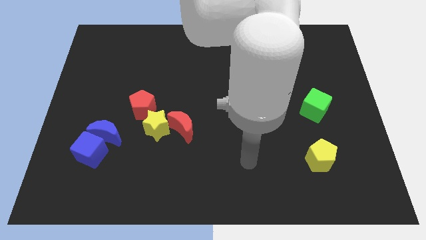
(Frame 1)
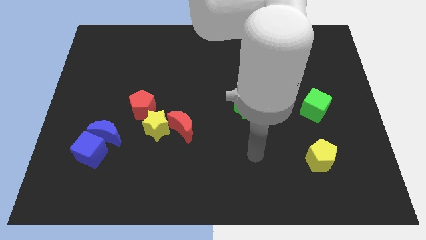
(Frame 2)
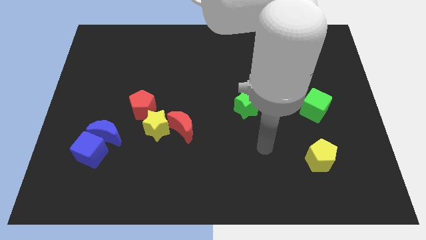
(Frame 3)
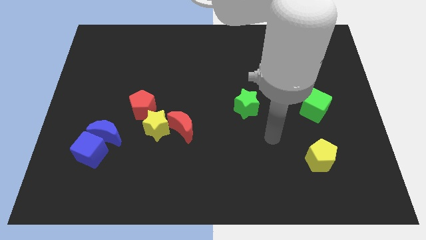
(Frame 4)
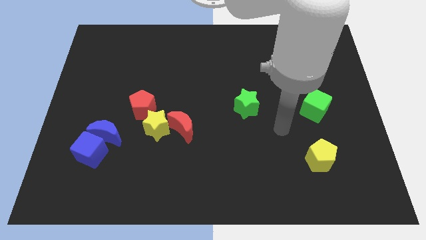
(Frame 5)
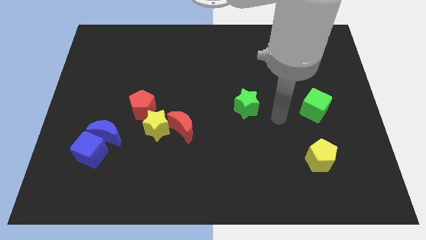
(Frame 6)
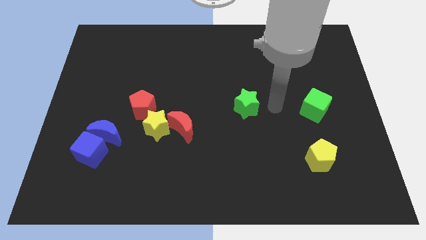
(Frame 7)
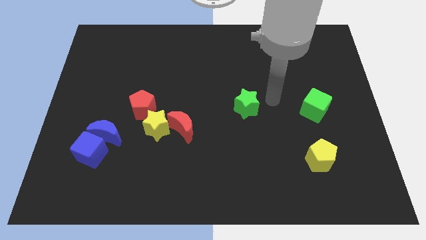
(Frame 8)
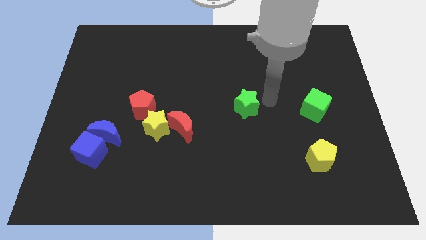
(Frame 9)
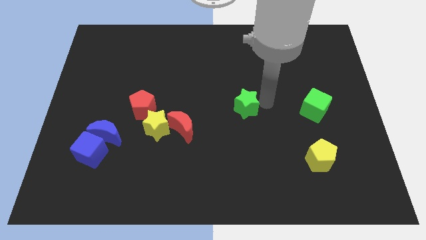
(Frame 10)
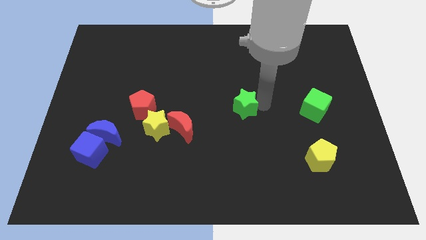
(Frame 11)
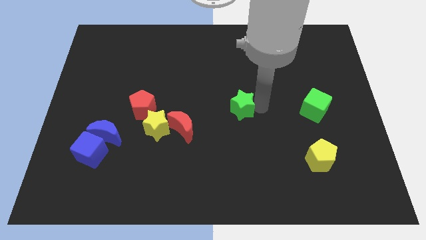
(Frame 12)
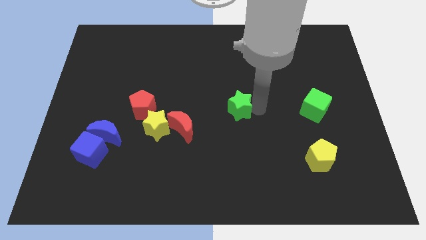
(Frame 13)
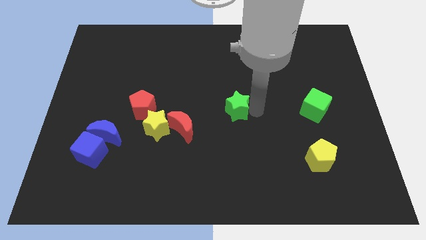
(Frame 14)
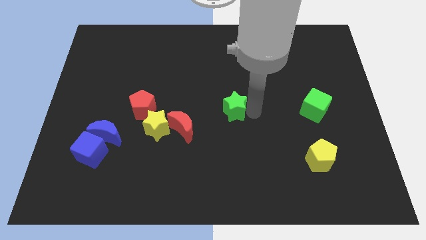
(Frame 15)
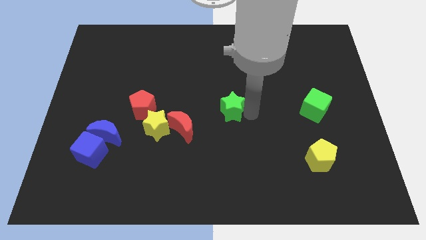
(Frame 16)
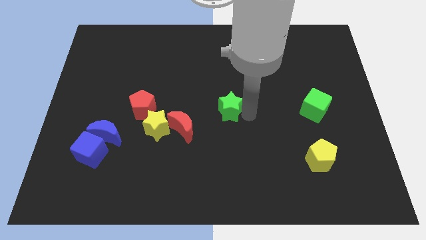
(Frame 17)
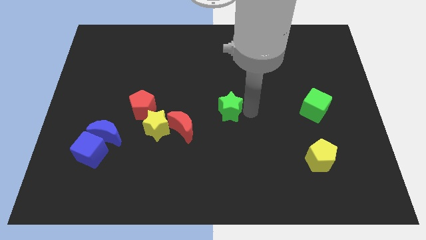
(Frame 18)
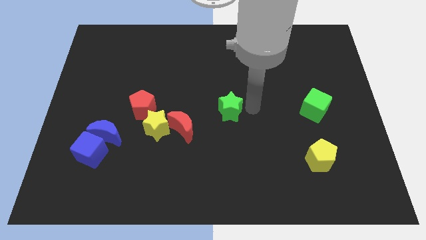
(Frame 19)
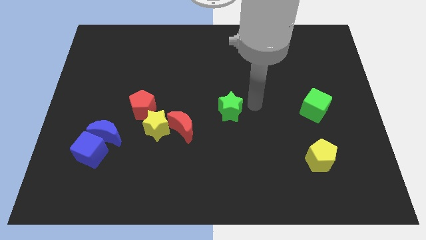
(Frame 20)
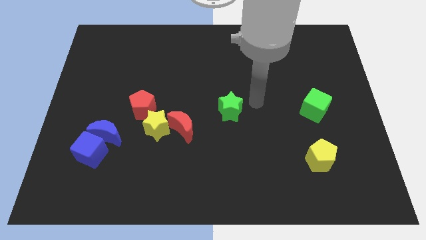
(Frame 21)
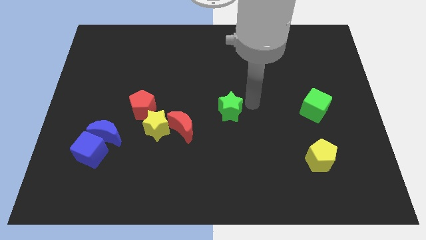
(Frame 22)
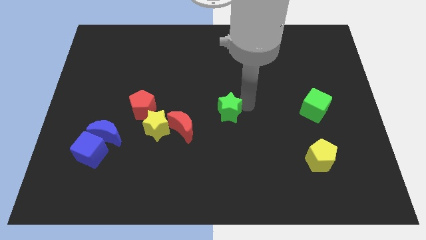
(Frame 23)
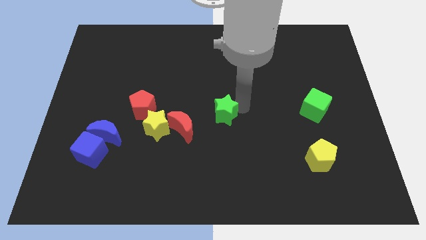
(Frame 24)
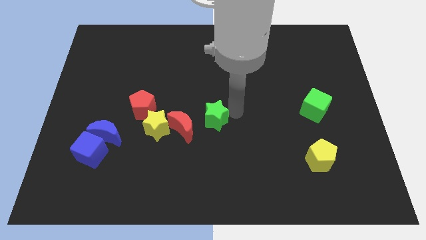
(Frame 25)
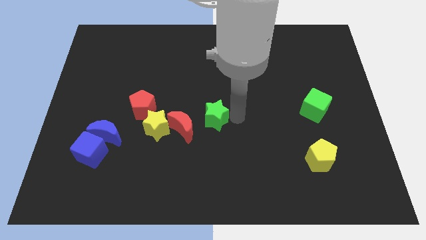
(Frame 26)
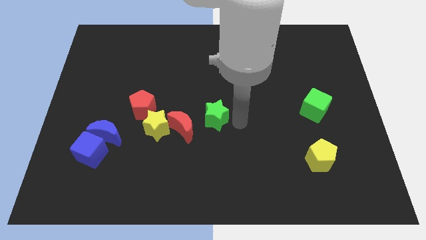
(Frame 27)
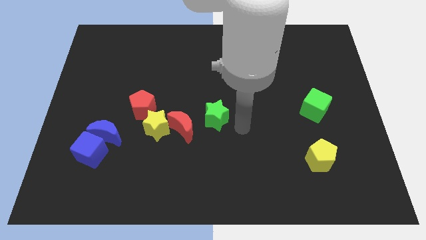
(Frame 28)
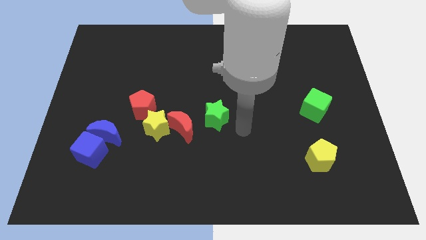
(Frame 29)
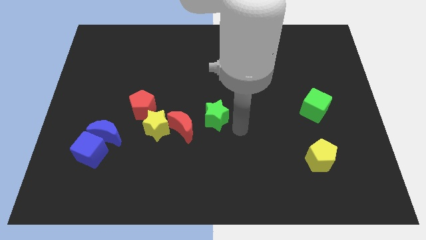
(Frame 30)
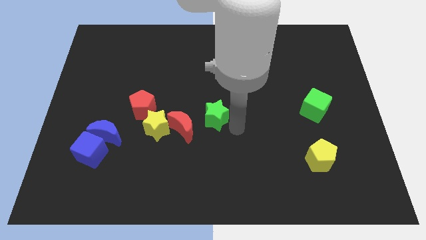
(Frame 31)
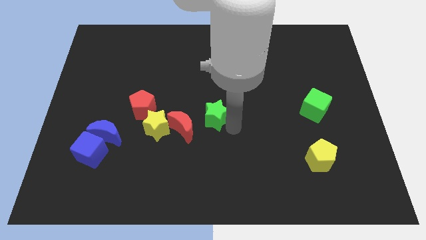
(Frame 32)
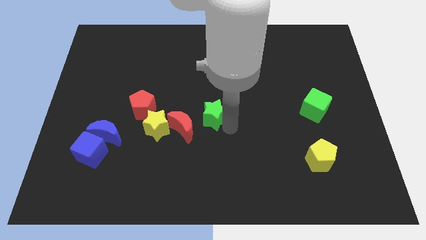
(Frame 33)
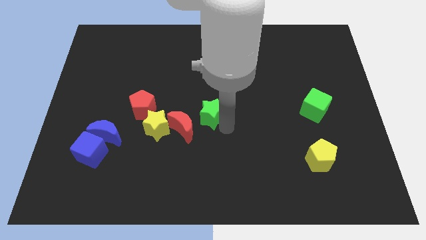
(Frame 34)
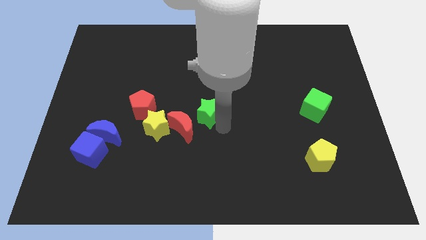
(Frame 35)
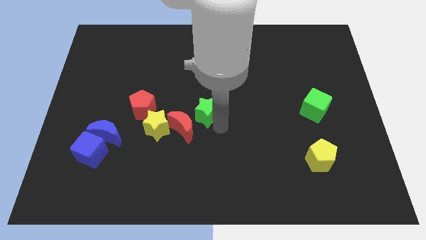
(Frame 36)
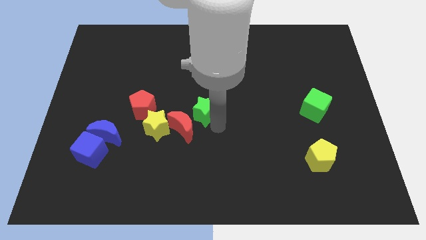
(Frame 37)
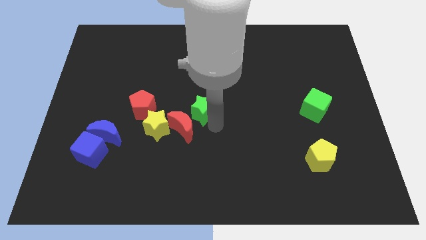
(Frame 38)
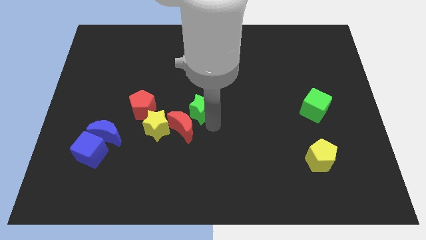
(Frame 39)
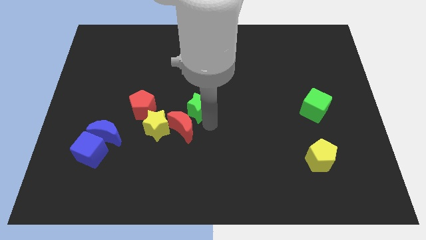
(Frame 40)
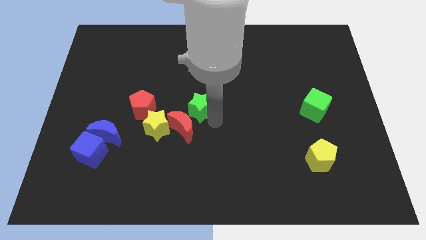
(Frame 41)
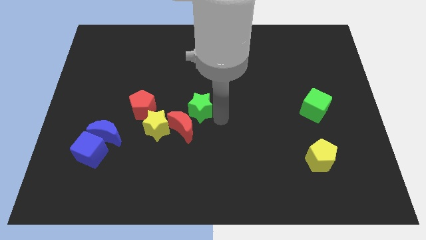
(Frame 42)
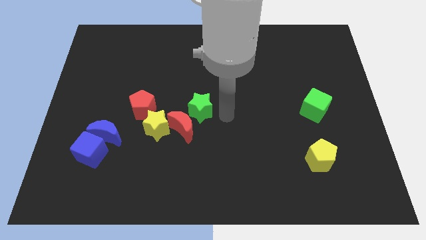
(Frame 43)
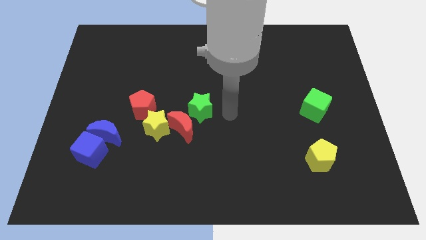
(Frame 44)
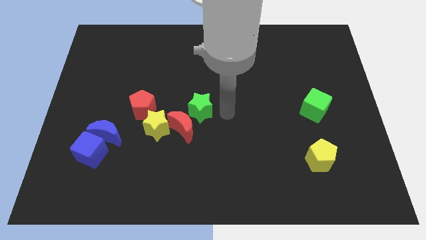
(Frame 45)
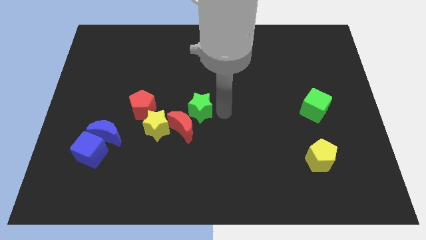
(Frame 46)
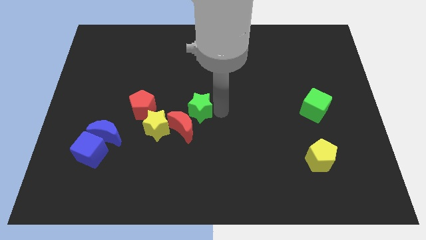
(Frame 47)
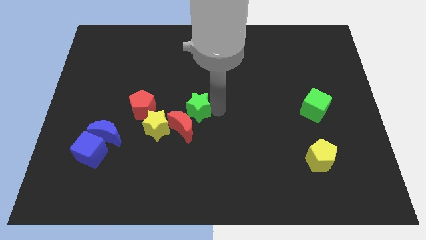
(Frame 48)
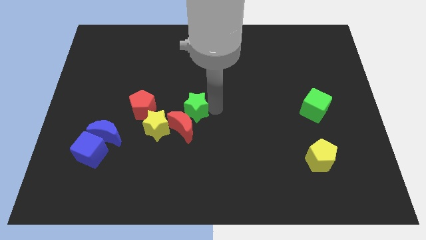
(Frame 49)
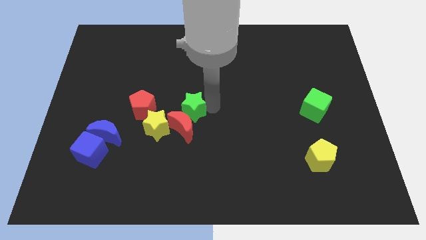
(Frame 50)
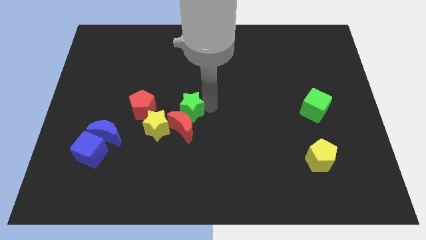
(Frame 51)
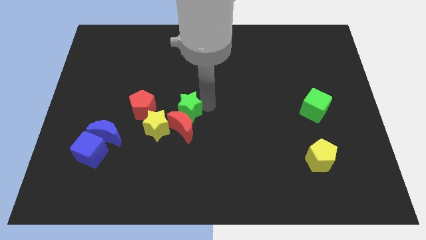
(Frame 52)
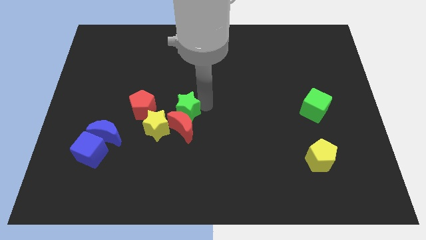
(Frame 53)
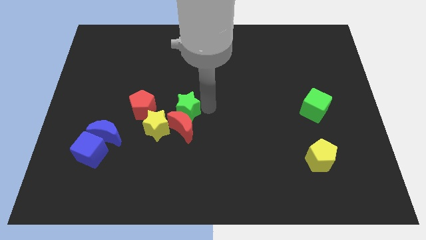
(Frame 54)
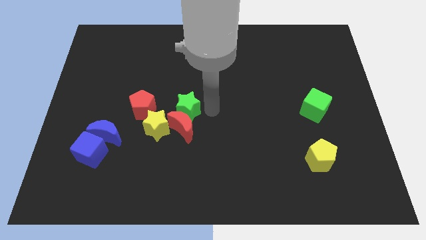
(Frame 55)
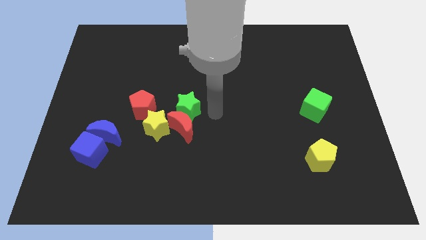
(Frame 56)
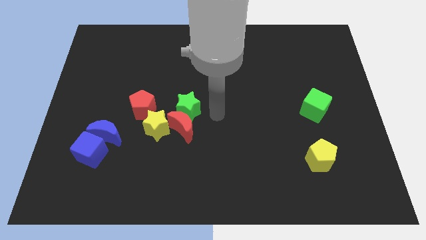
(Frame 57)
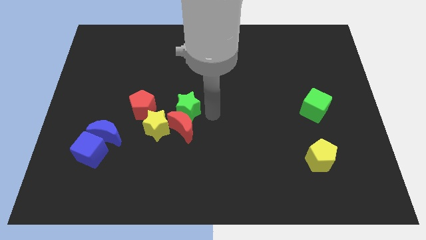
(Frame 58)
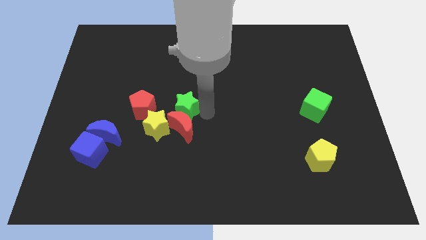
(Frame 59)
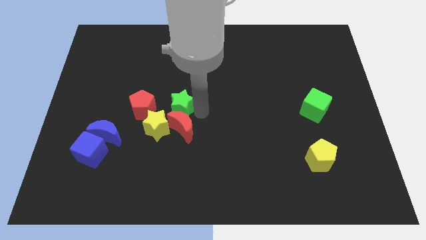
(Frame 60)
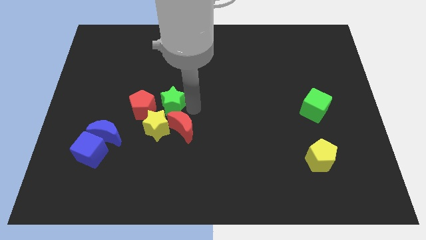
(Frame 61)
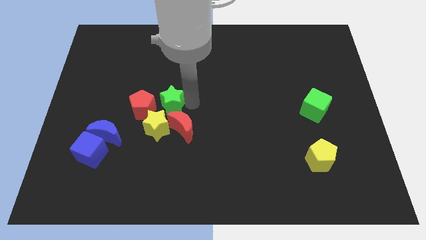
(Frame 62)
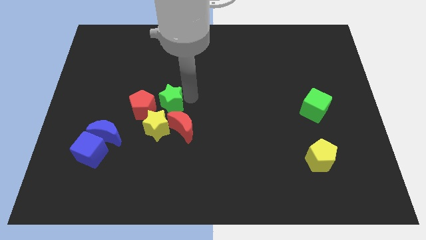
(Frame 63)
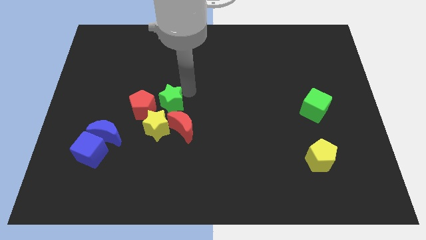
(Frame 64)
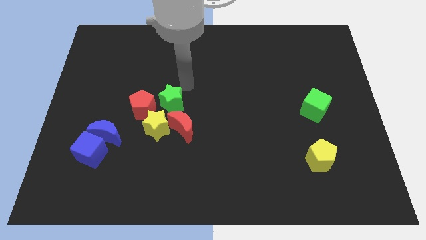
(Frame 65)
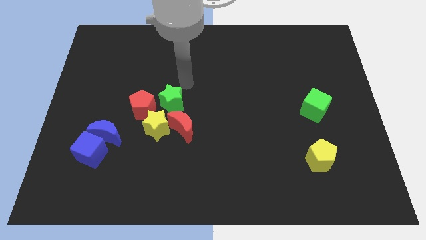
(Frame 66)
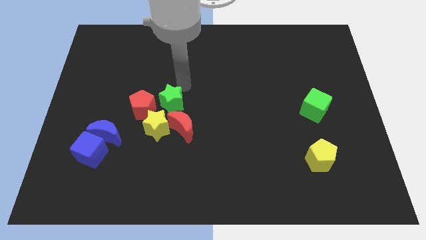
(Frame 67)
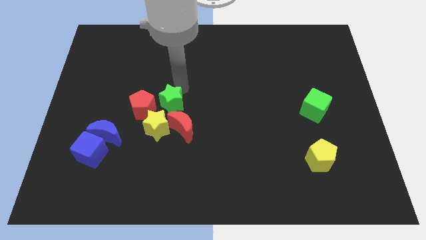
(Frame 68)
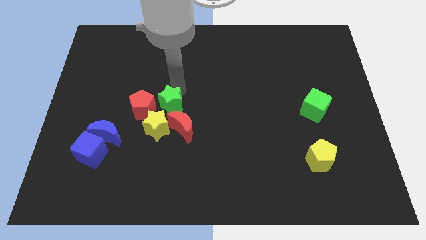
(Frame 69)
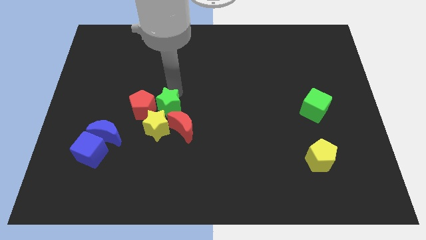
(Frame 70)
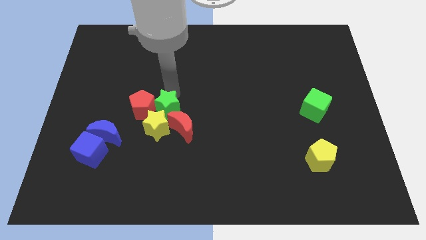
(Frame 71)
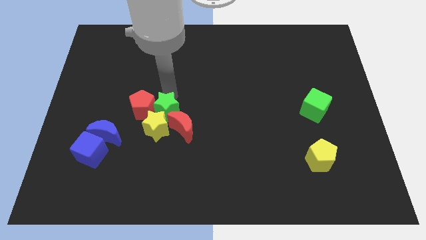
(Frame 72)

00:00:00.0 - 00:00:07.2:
move the green star to the yellow star
